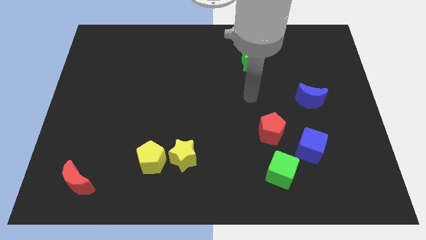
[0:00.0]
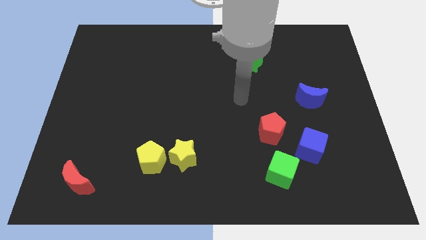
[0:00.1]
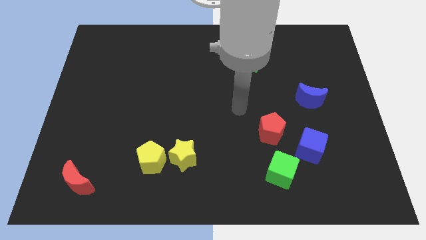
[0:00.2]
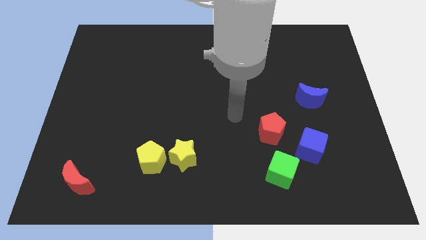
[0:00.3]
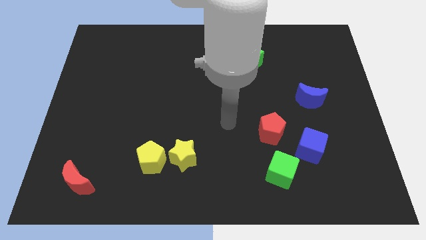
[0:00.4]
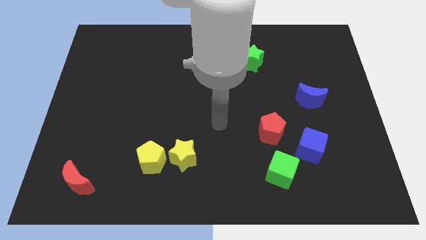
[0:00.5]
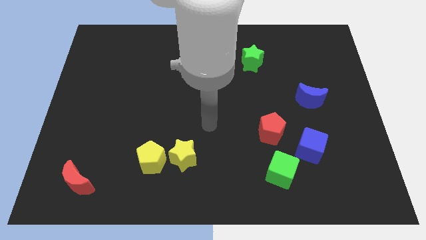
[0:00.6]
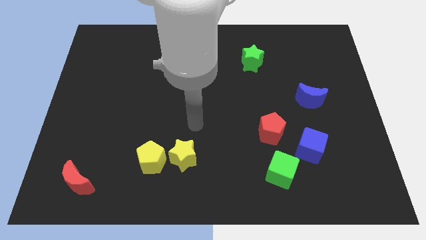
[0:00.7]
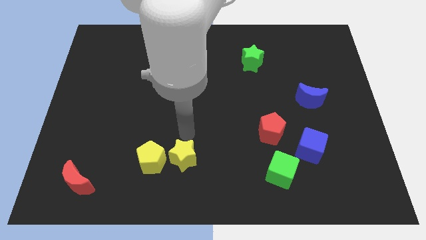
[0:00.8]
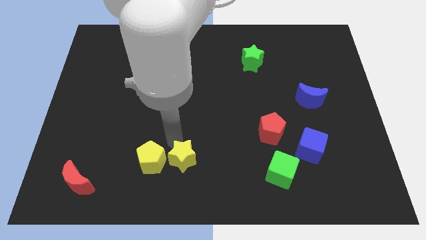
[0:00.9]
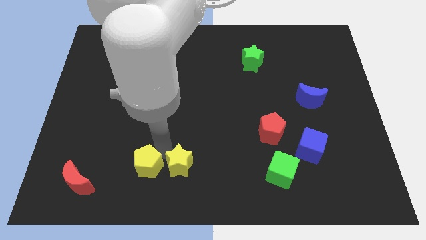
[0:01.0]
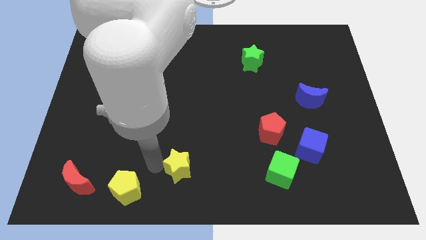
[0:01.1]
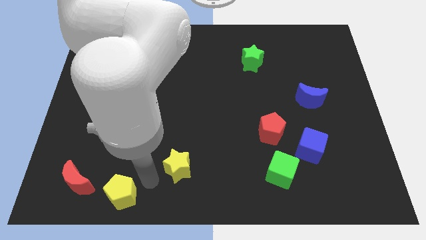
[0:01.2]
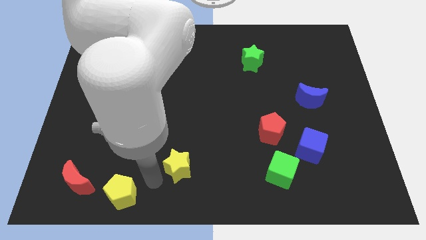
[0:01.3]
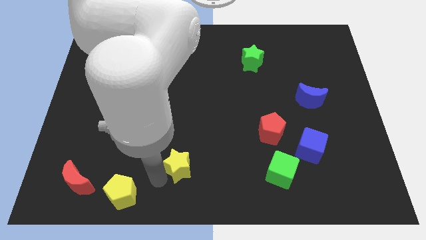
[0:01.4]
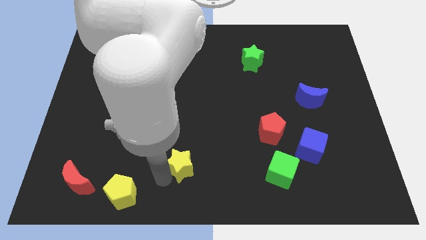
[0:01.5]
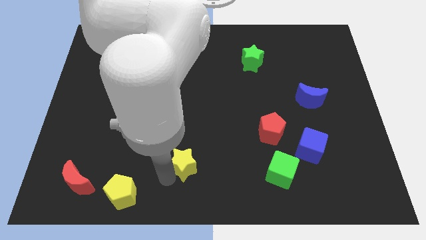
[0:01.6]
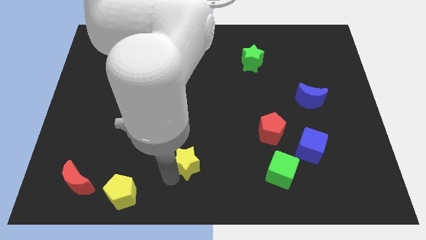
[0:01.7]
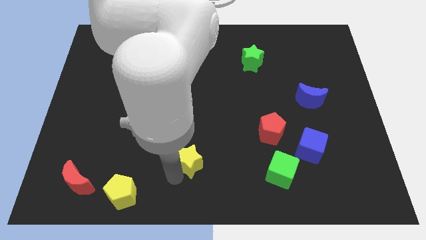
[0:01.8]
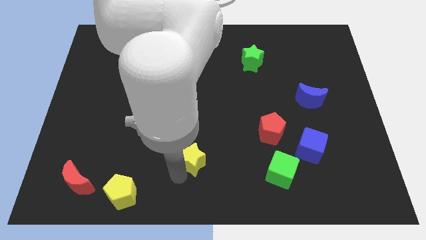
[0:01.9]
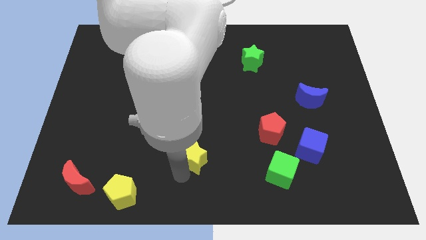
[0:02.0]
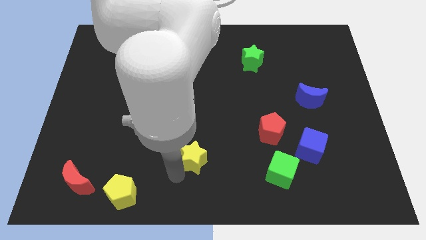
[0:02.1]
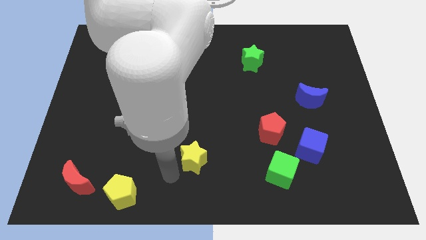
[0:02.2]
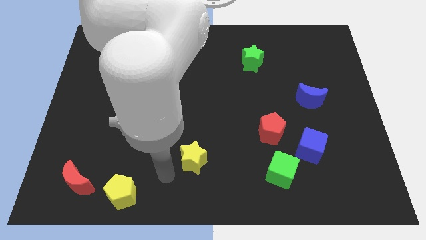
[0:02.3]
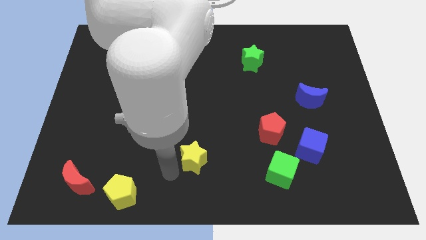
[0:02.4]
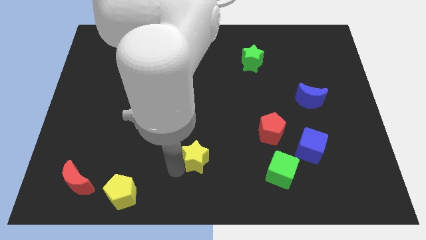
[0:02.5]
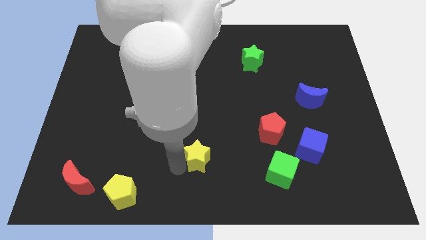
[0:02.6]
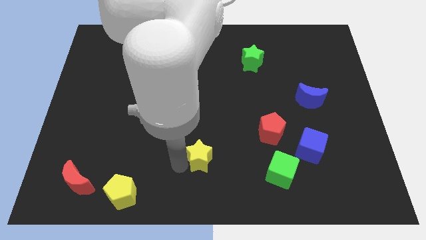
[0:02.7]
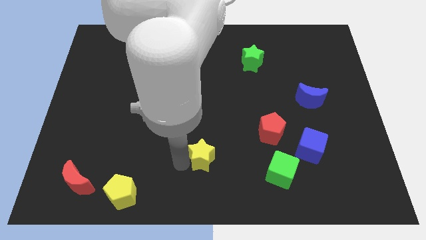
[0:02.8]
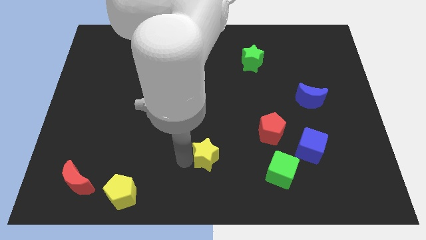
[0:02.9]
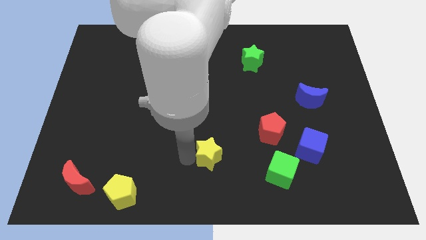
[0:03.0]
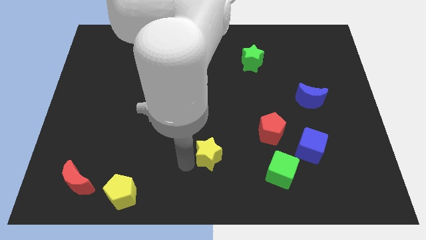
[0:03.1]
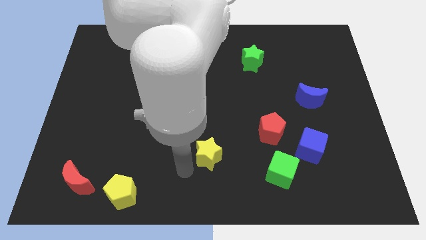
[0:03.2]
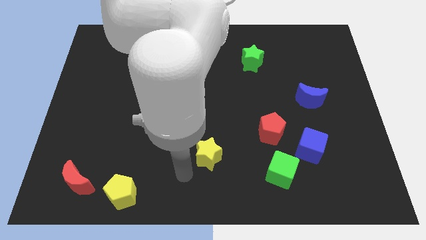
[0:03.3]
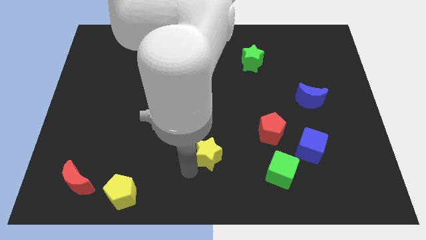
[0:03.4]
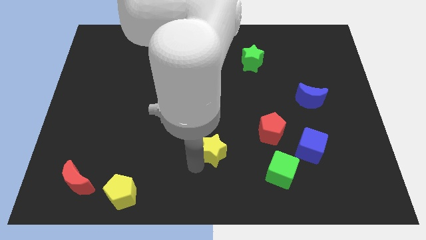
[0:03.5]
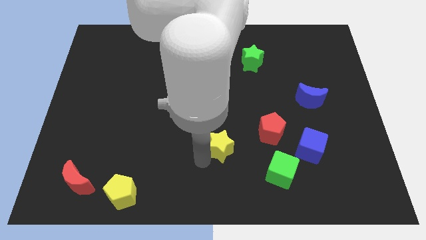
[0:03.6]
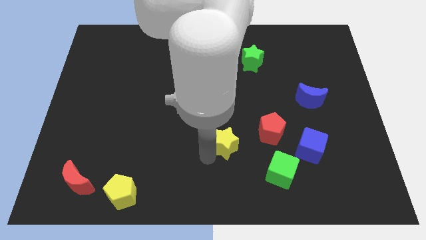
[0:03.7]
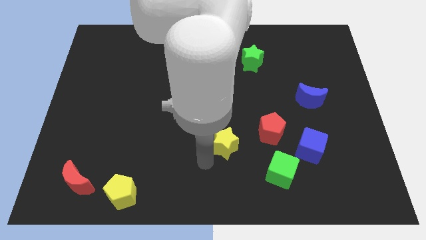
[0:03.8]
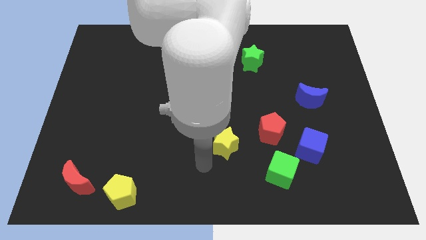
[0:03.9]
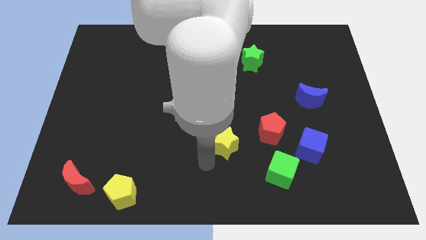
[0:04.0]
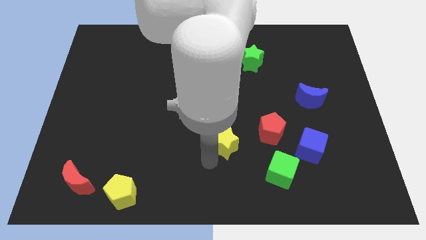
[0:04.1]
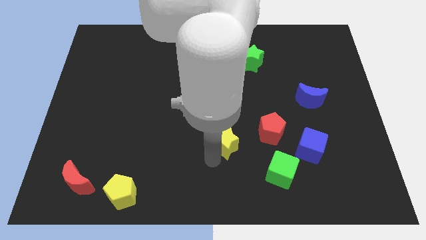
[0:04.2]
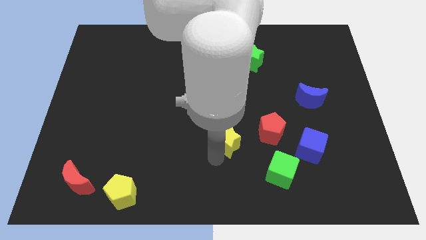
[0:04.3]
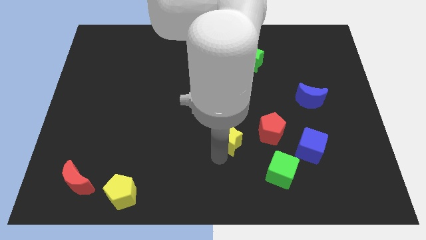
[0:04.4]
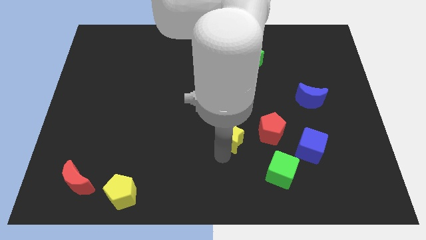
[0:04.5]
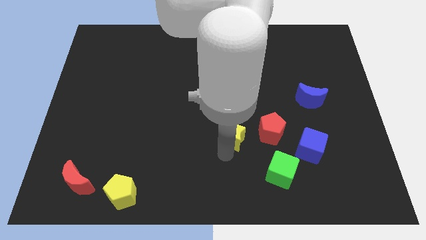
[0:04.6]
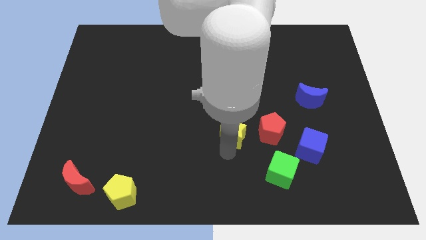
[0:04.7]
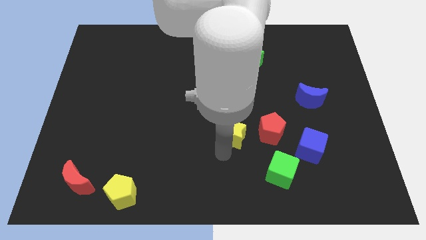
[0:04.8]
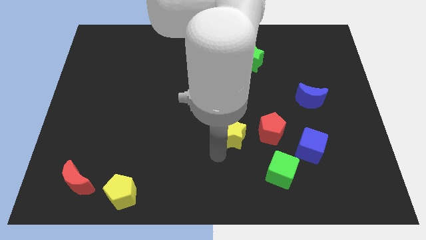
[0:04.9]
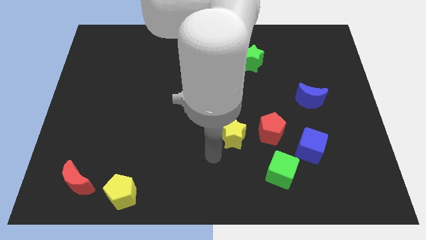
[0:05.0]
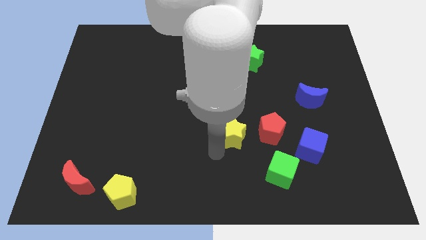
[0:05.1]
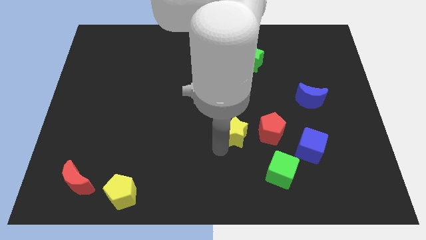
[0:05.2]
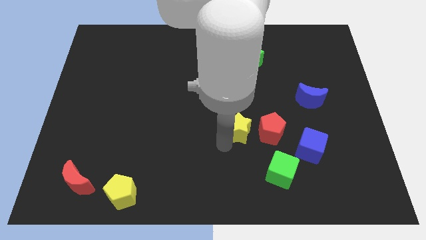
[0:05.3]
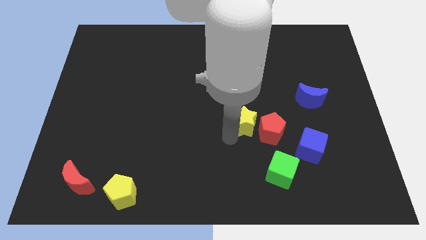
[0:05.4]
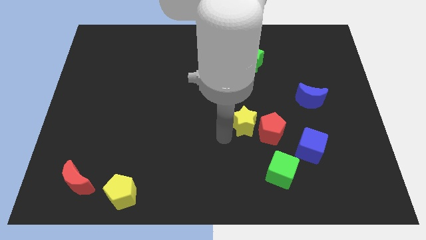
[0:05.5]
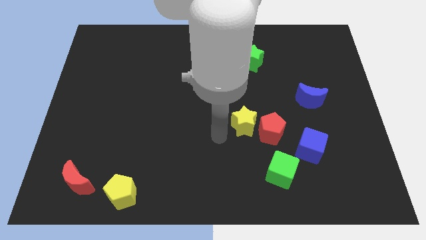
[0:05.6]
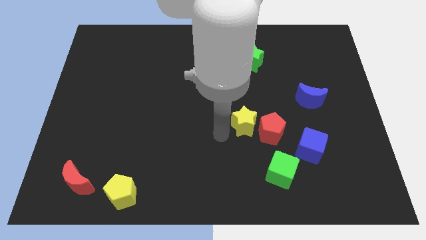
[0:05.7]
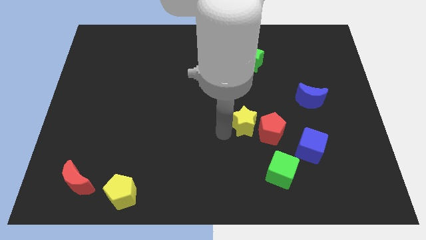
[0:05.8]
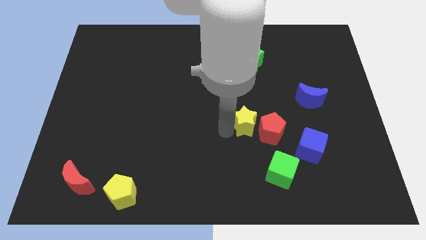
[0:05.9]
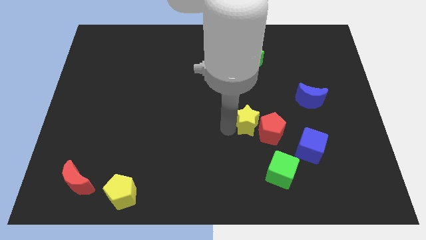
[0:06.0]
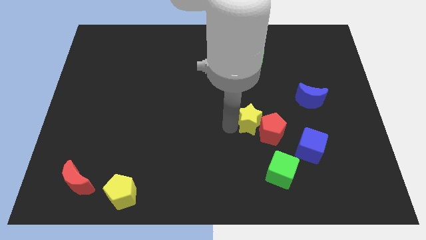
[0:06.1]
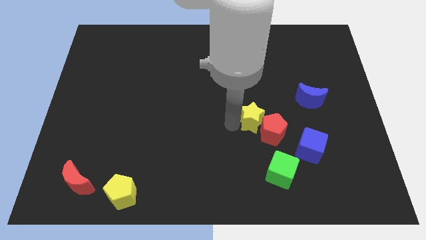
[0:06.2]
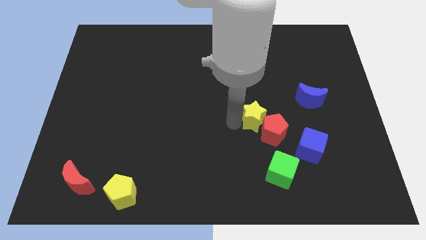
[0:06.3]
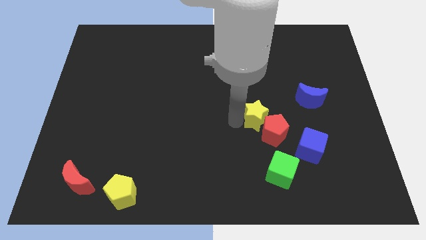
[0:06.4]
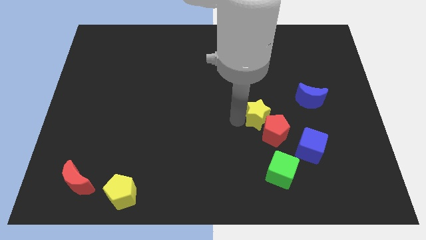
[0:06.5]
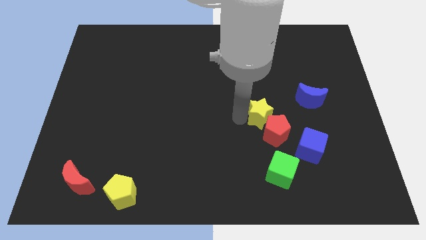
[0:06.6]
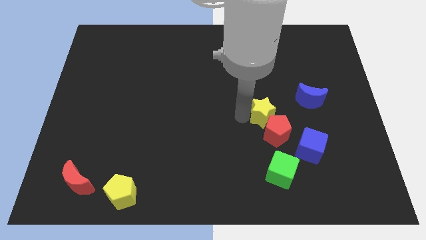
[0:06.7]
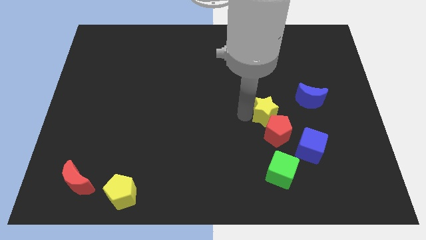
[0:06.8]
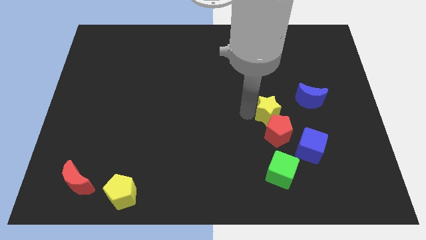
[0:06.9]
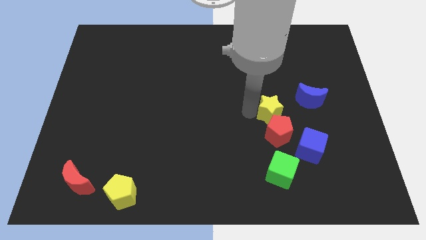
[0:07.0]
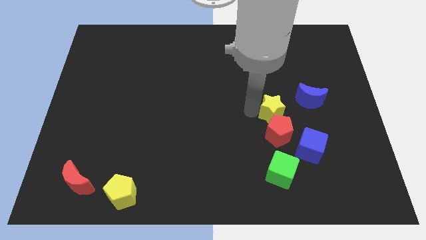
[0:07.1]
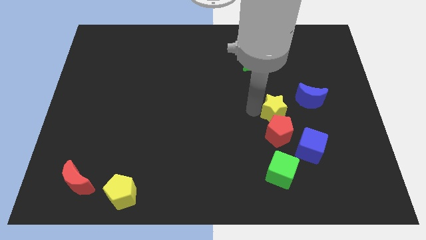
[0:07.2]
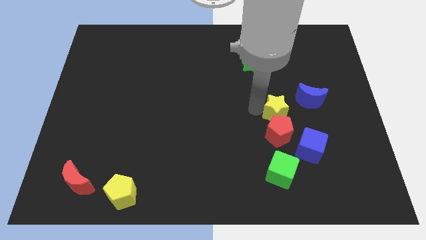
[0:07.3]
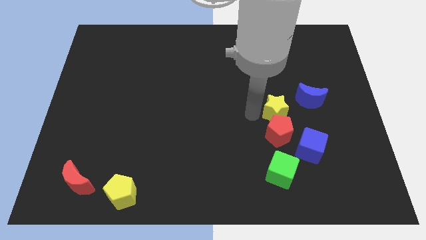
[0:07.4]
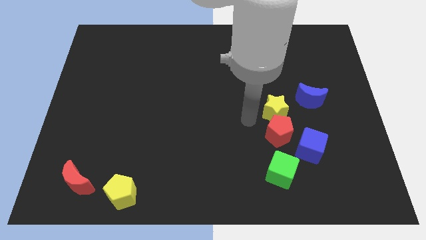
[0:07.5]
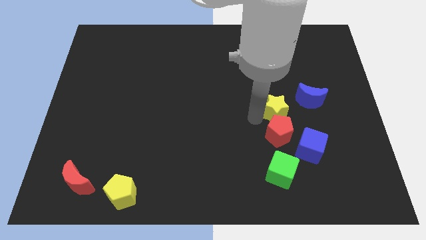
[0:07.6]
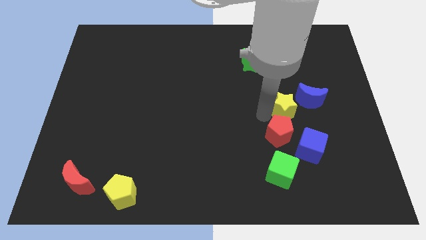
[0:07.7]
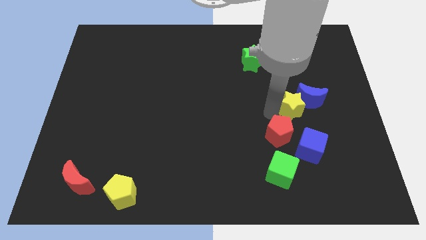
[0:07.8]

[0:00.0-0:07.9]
move the yellow star to the blue moon
